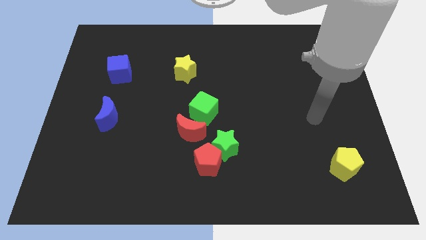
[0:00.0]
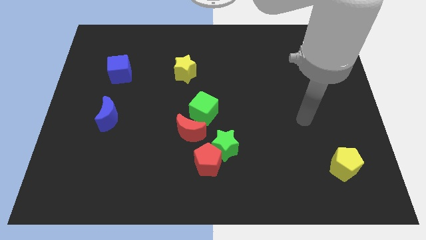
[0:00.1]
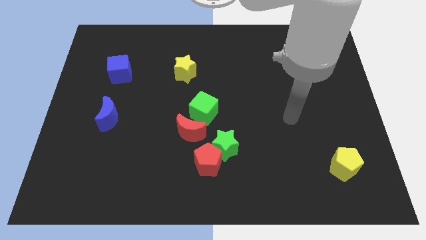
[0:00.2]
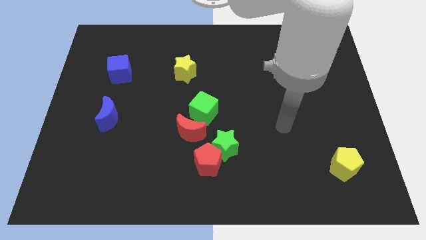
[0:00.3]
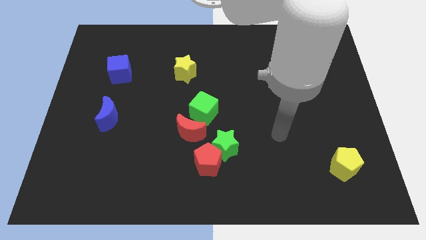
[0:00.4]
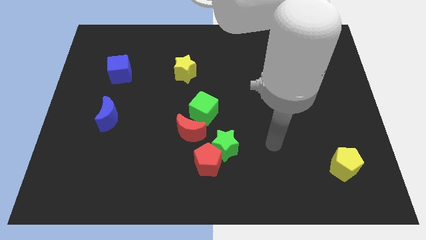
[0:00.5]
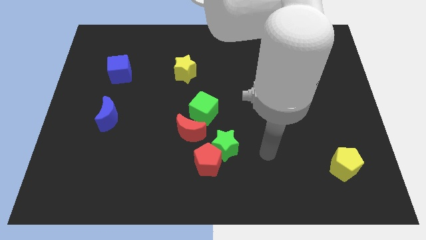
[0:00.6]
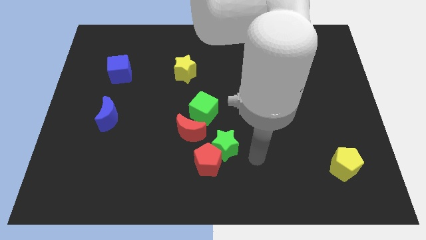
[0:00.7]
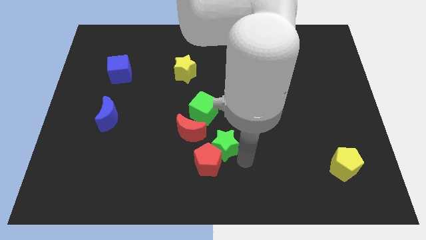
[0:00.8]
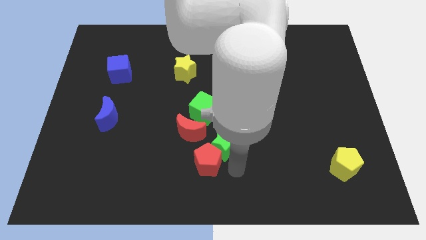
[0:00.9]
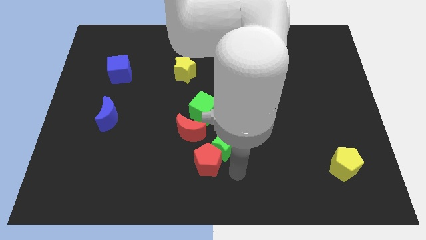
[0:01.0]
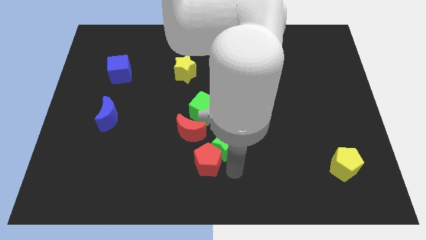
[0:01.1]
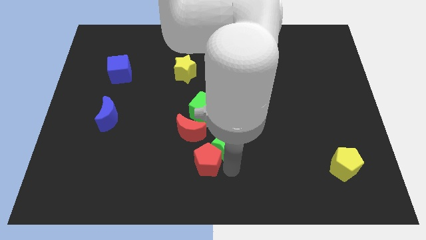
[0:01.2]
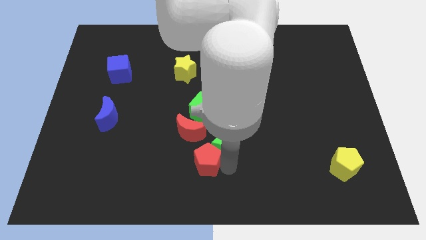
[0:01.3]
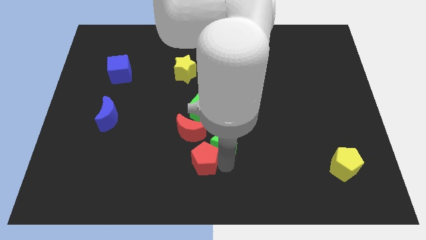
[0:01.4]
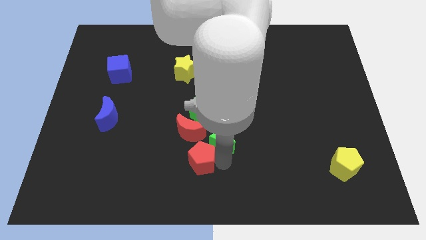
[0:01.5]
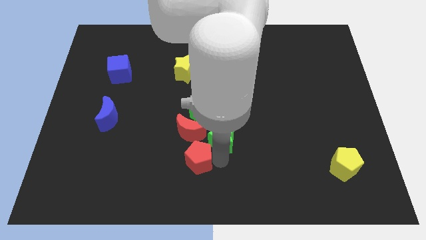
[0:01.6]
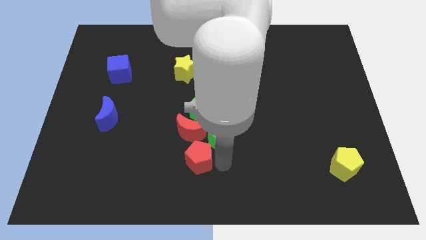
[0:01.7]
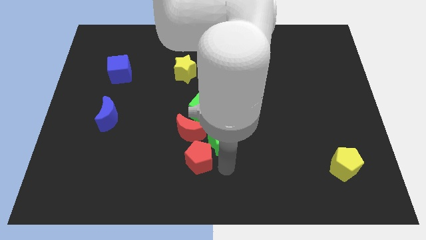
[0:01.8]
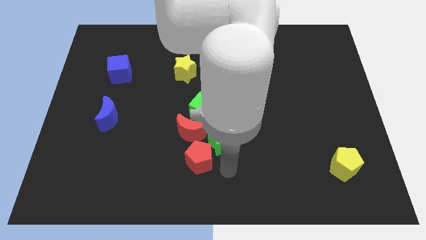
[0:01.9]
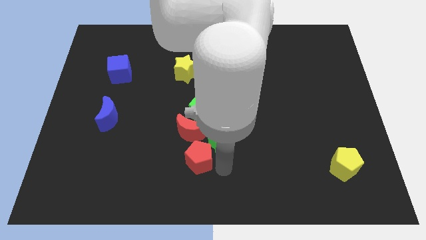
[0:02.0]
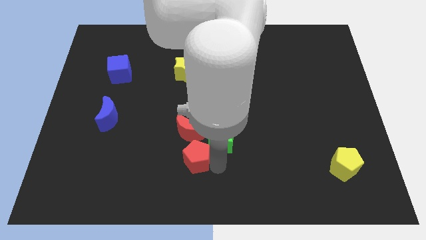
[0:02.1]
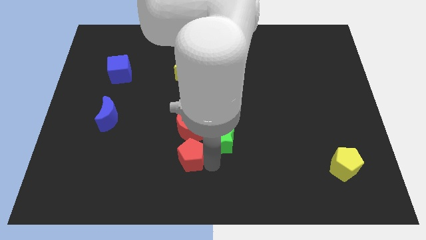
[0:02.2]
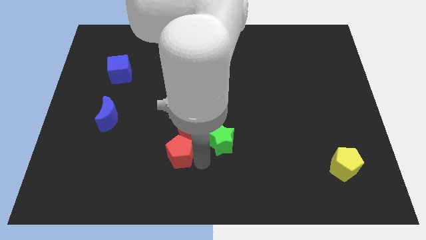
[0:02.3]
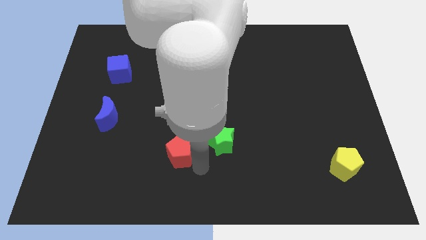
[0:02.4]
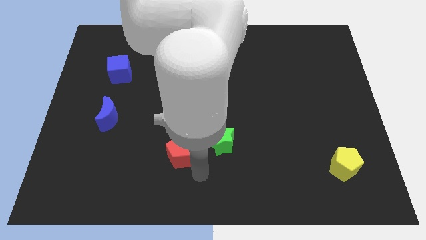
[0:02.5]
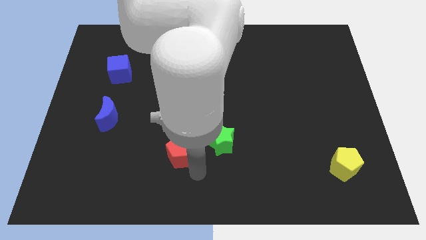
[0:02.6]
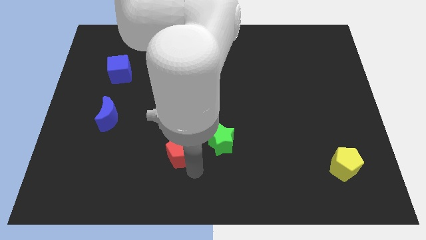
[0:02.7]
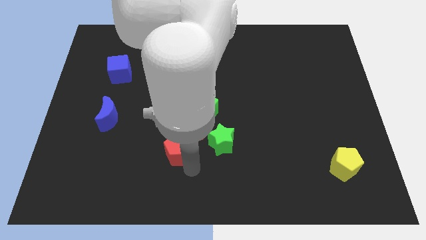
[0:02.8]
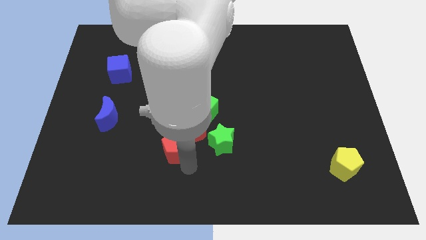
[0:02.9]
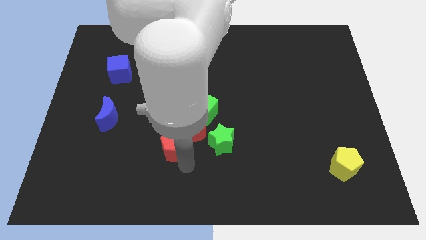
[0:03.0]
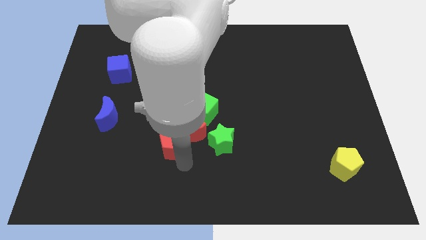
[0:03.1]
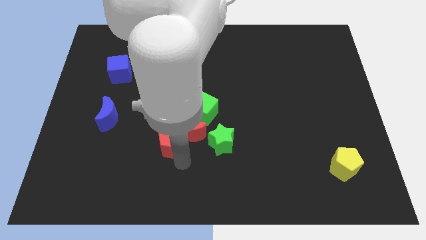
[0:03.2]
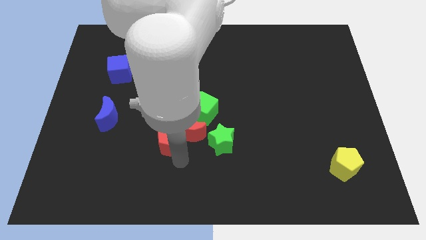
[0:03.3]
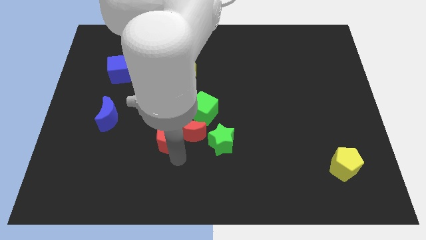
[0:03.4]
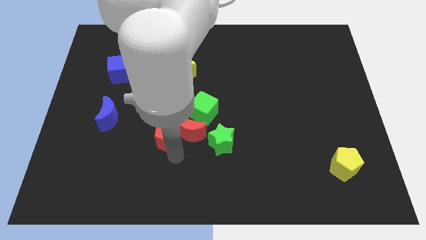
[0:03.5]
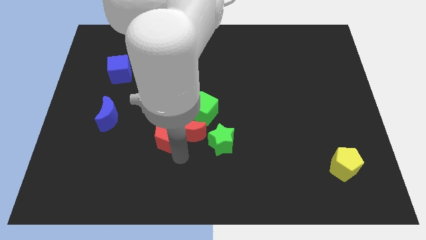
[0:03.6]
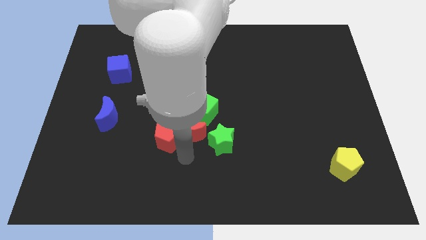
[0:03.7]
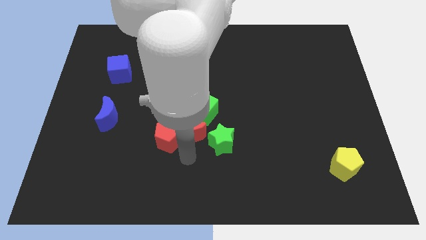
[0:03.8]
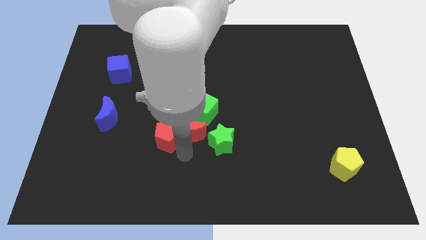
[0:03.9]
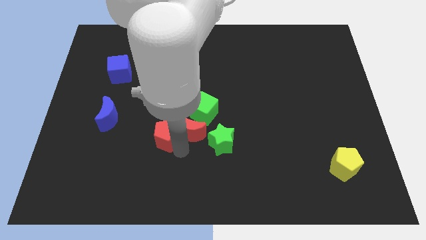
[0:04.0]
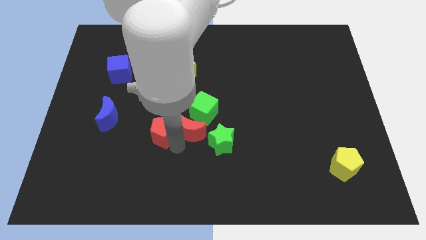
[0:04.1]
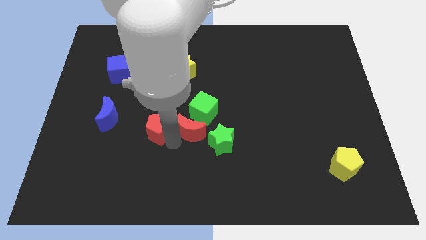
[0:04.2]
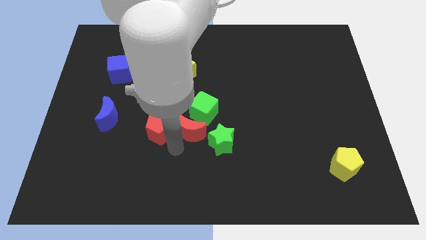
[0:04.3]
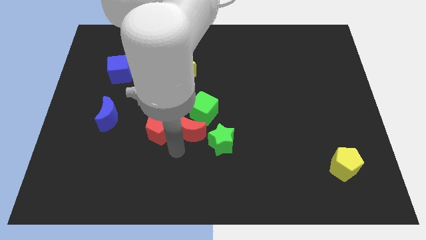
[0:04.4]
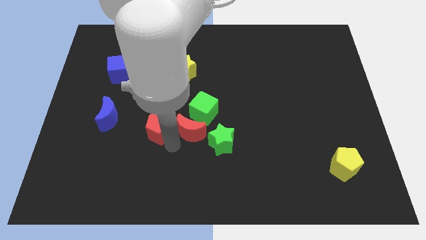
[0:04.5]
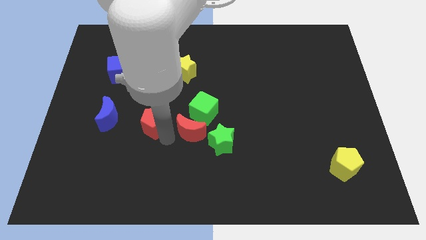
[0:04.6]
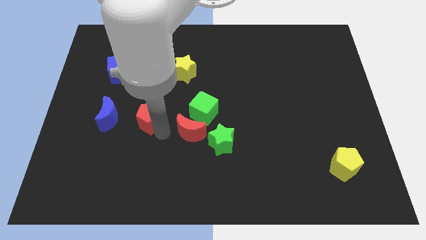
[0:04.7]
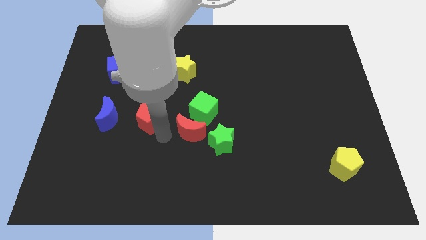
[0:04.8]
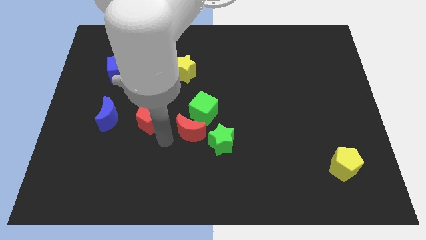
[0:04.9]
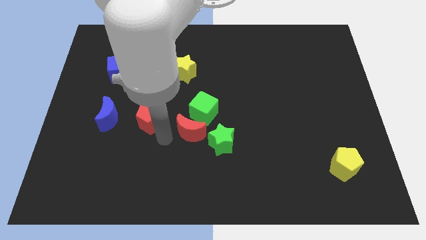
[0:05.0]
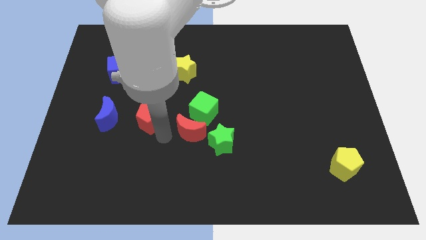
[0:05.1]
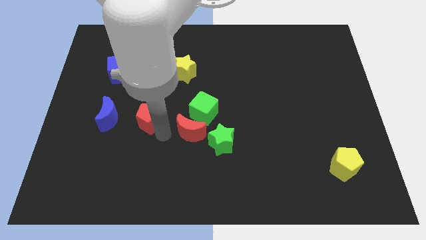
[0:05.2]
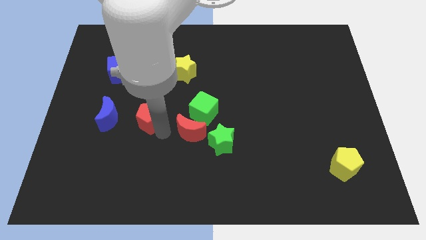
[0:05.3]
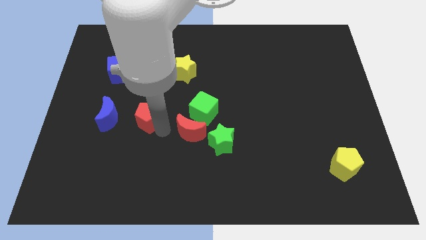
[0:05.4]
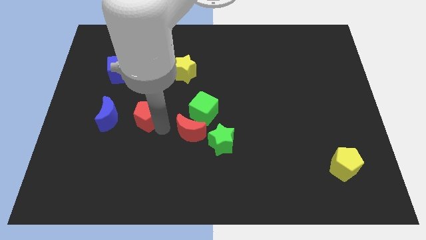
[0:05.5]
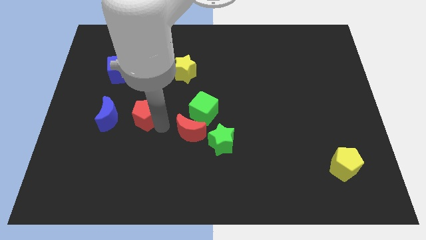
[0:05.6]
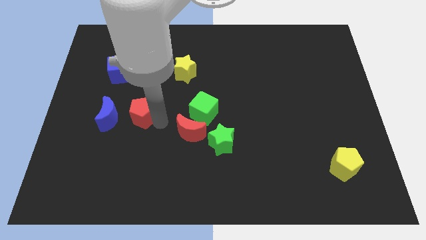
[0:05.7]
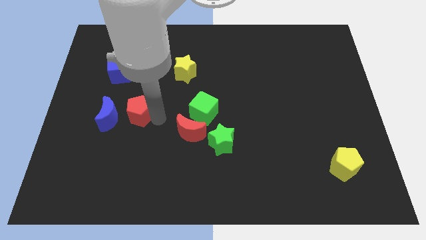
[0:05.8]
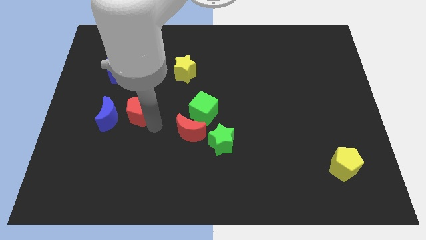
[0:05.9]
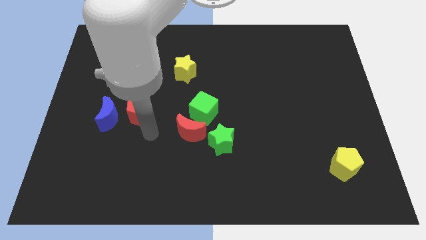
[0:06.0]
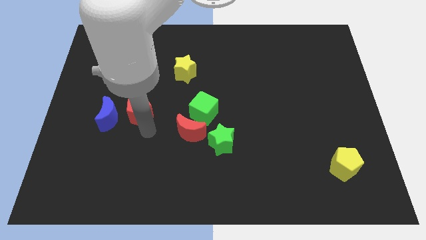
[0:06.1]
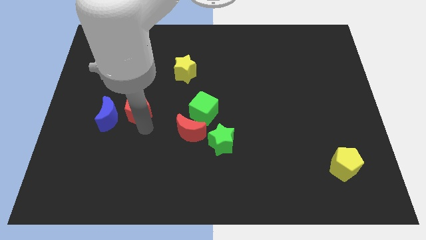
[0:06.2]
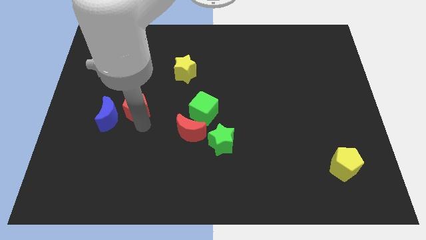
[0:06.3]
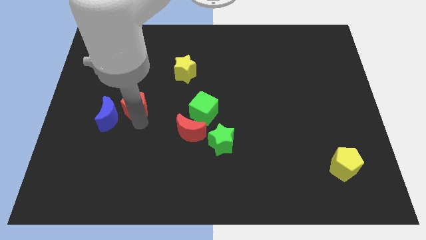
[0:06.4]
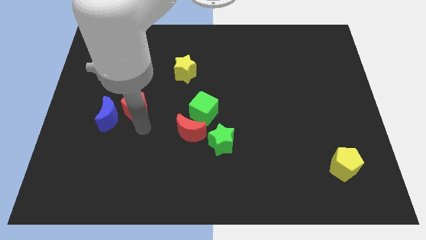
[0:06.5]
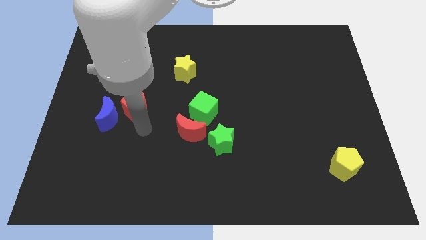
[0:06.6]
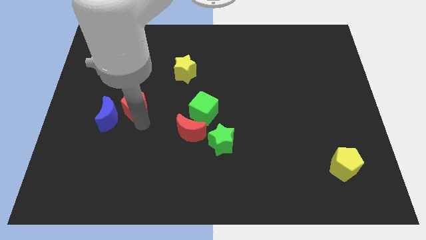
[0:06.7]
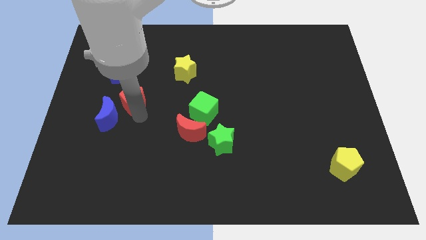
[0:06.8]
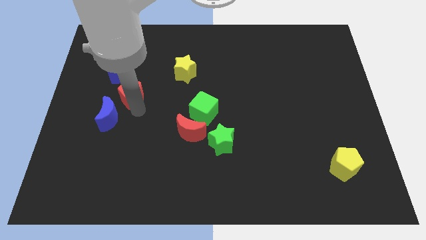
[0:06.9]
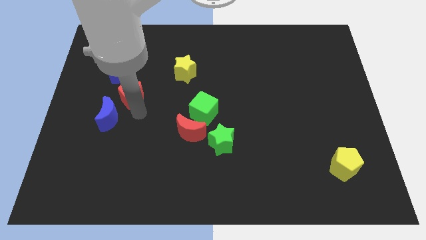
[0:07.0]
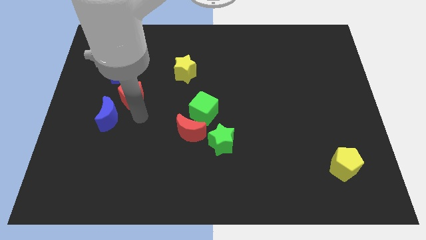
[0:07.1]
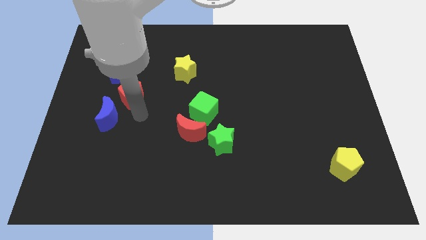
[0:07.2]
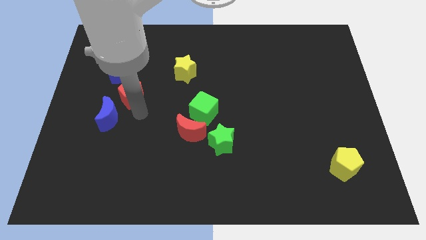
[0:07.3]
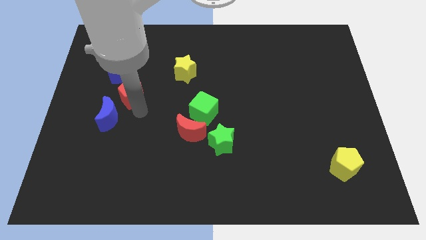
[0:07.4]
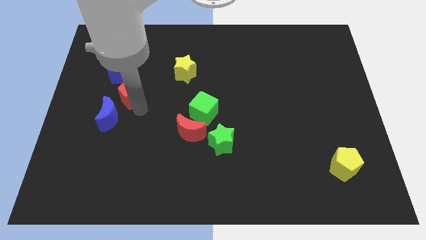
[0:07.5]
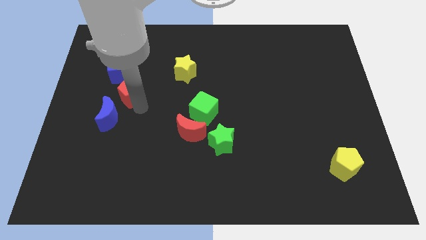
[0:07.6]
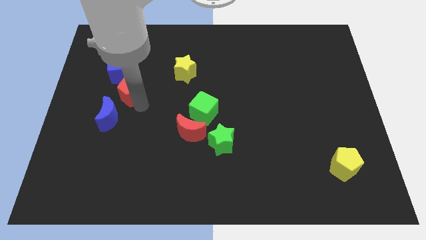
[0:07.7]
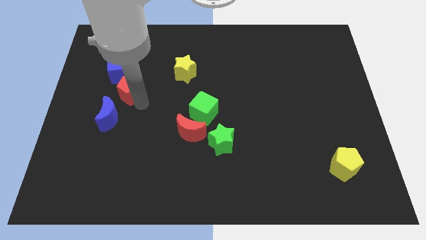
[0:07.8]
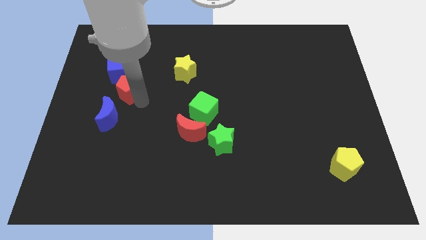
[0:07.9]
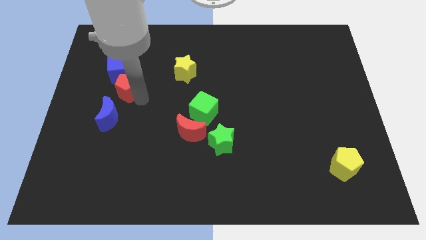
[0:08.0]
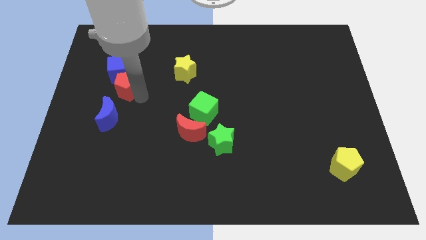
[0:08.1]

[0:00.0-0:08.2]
slide the red pentagon to the blue cube
